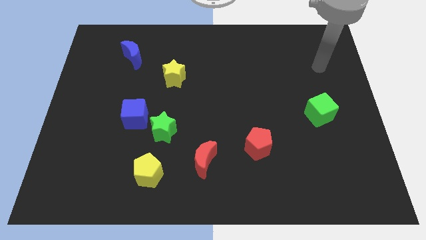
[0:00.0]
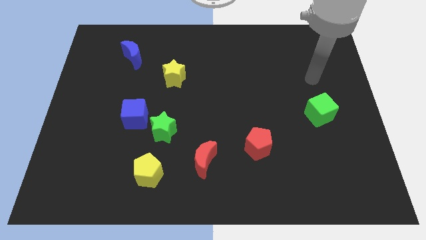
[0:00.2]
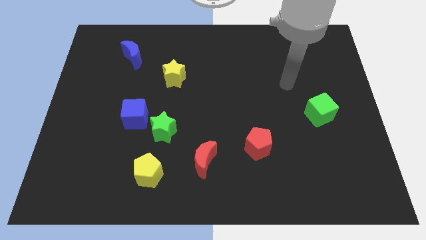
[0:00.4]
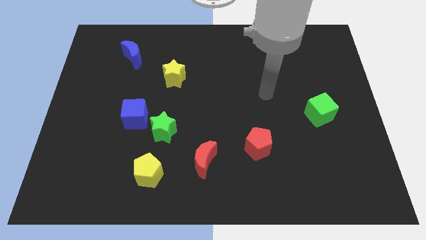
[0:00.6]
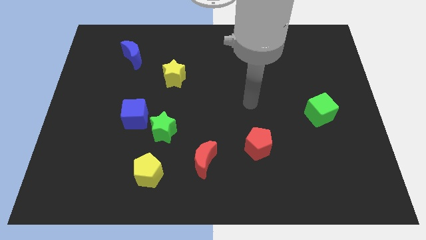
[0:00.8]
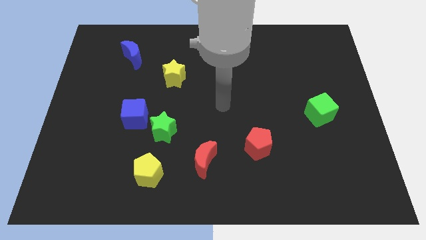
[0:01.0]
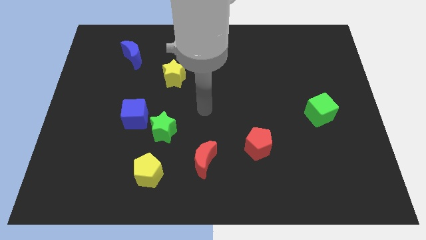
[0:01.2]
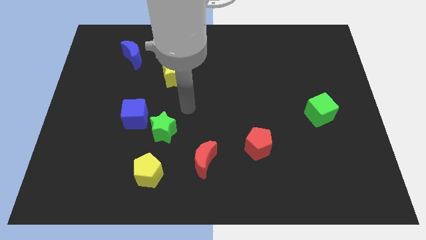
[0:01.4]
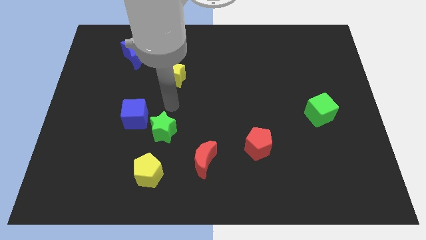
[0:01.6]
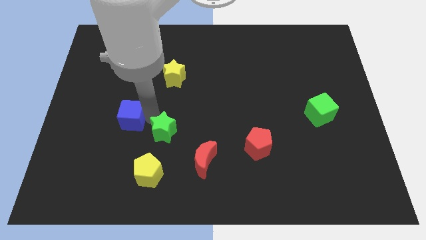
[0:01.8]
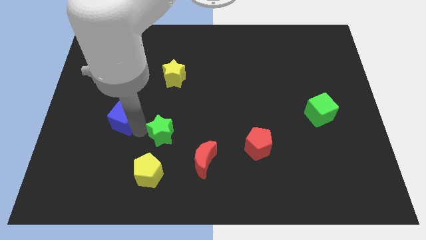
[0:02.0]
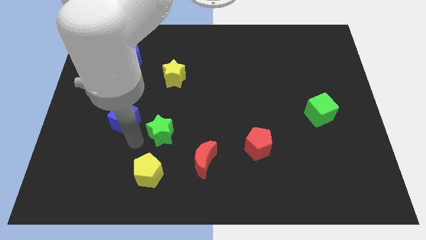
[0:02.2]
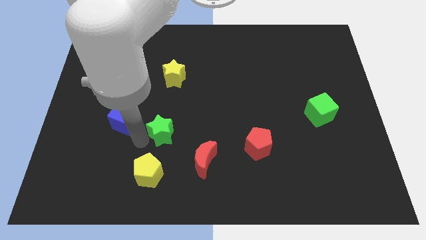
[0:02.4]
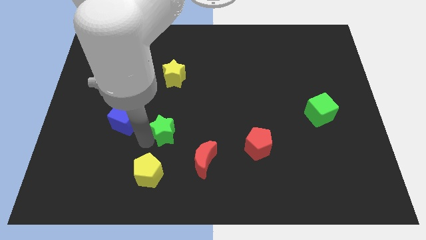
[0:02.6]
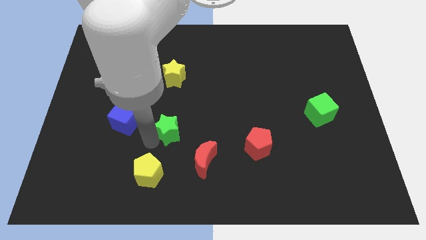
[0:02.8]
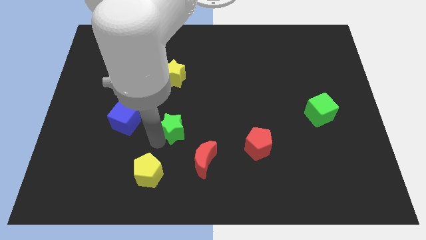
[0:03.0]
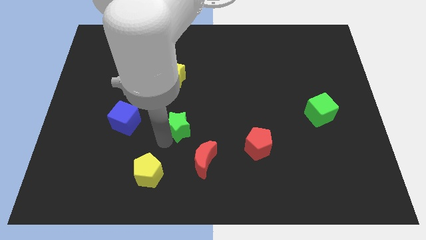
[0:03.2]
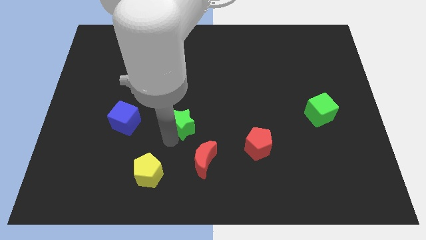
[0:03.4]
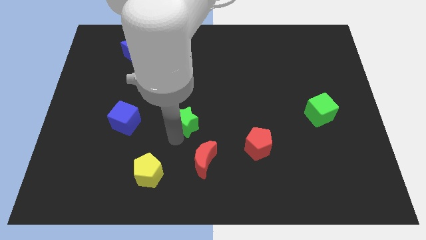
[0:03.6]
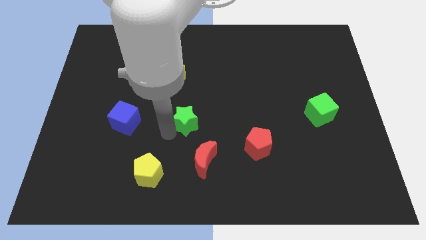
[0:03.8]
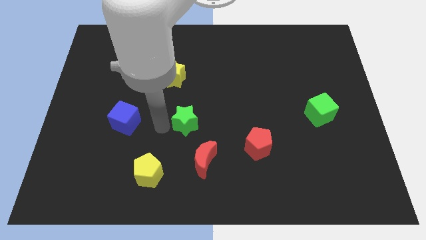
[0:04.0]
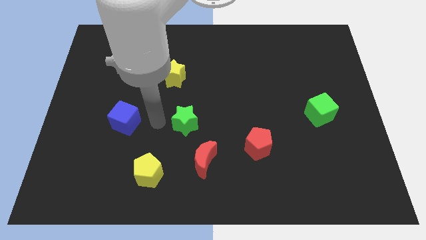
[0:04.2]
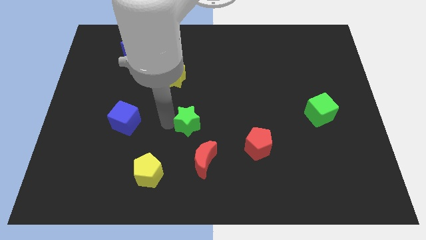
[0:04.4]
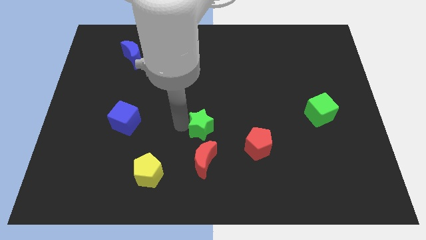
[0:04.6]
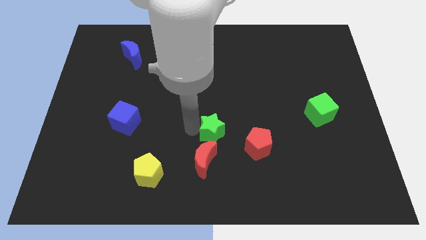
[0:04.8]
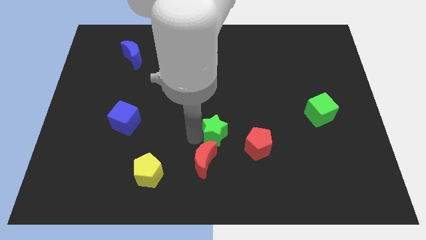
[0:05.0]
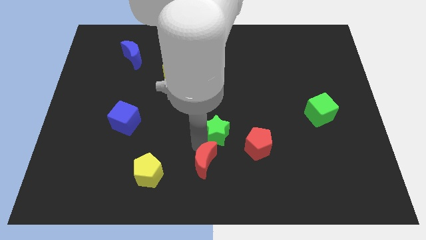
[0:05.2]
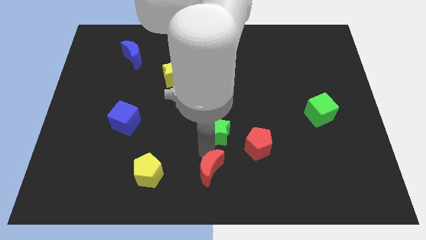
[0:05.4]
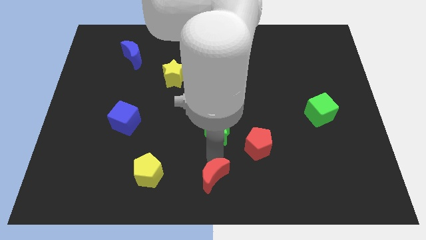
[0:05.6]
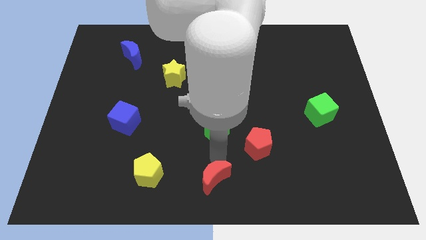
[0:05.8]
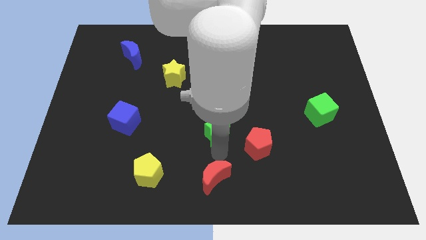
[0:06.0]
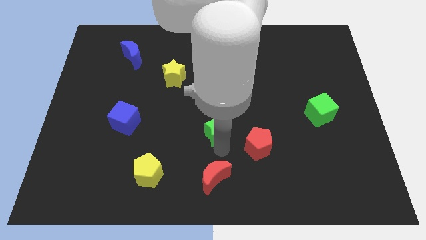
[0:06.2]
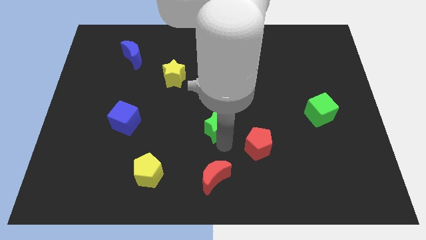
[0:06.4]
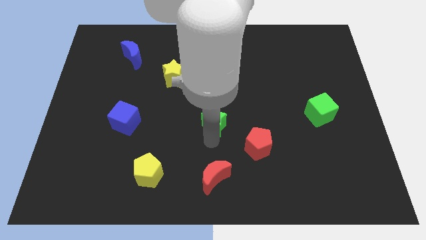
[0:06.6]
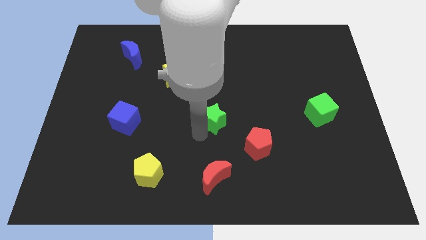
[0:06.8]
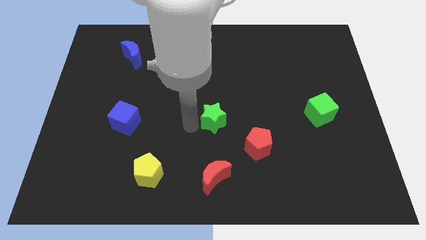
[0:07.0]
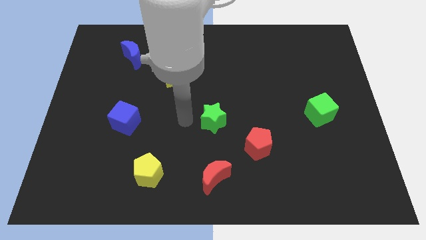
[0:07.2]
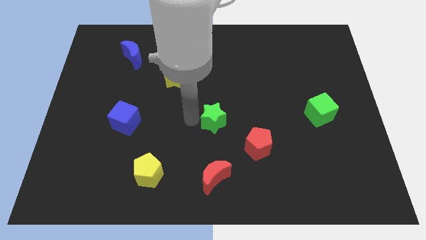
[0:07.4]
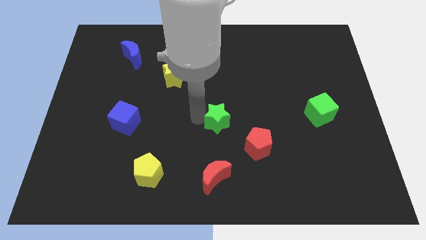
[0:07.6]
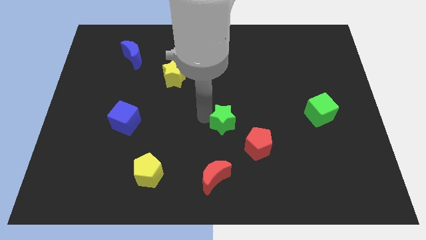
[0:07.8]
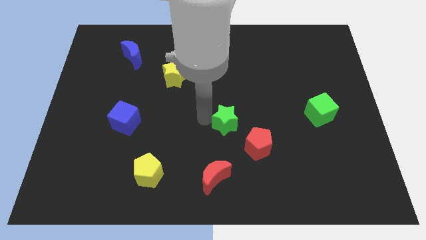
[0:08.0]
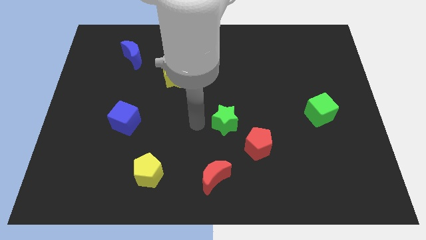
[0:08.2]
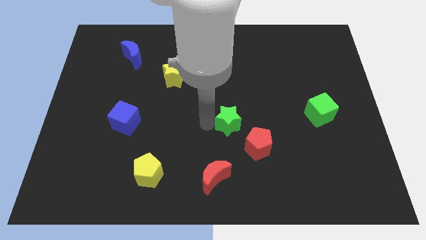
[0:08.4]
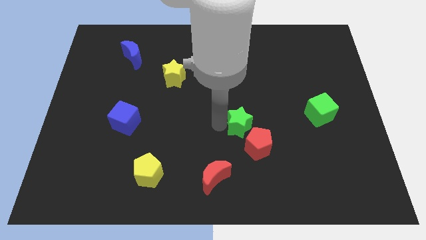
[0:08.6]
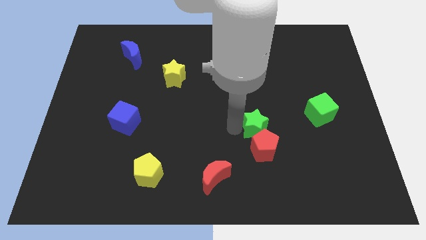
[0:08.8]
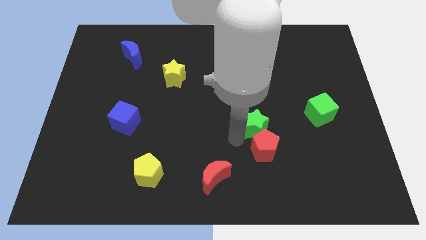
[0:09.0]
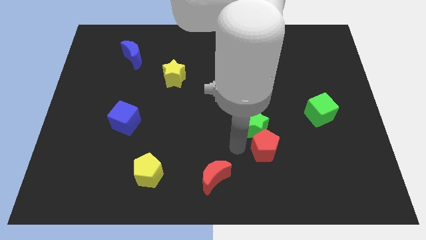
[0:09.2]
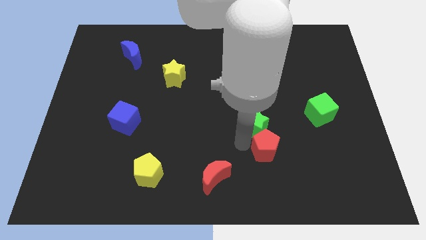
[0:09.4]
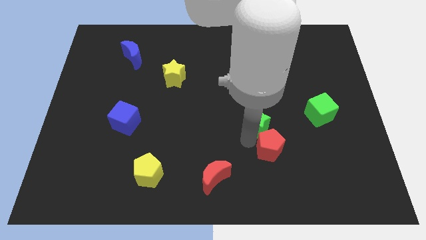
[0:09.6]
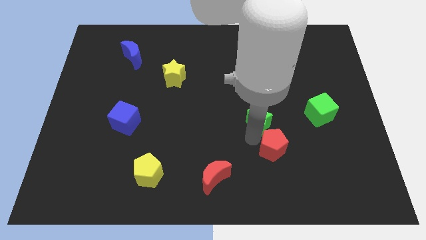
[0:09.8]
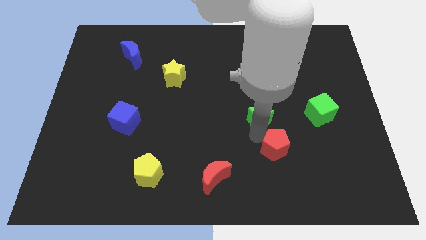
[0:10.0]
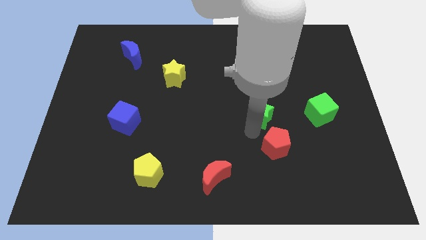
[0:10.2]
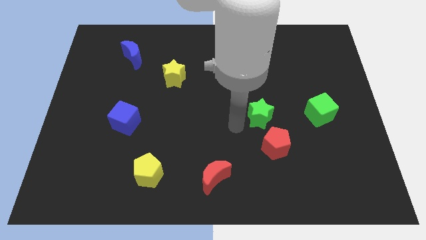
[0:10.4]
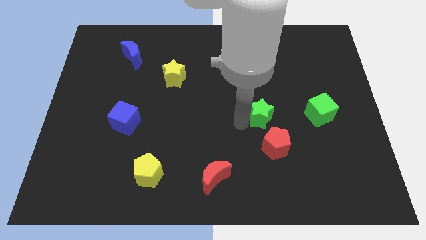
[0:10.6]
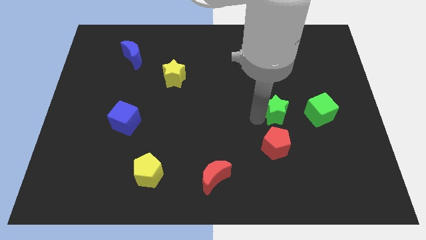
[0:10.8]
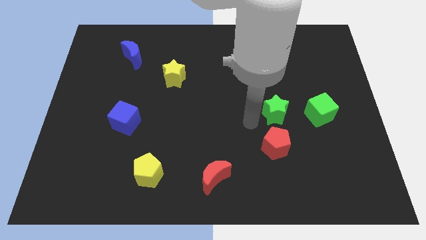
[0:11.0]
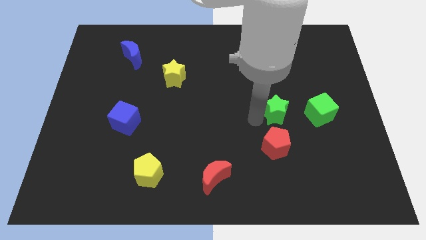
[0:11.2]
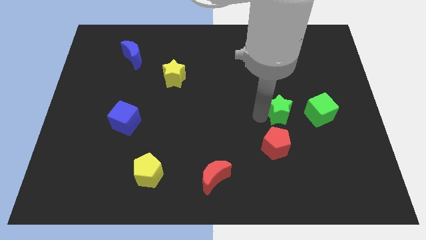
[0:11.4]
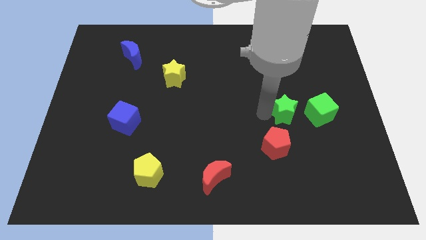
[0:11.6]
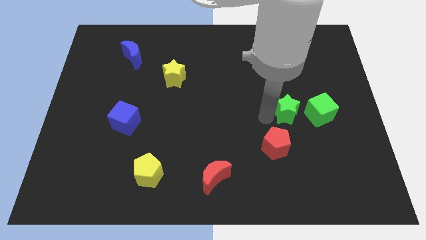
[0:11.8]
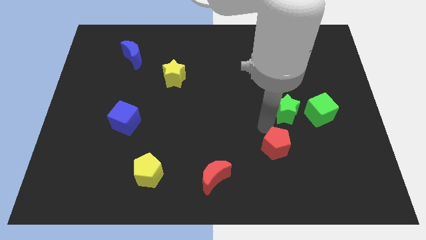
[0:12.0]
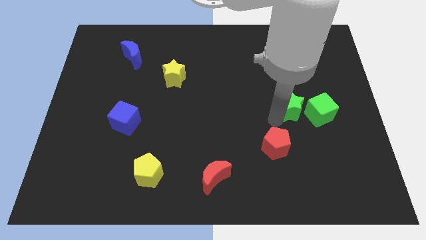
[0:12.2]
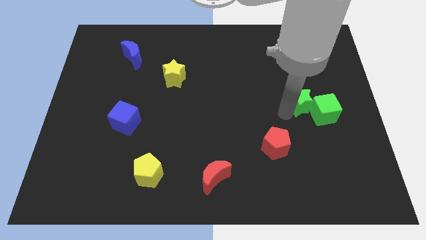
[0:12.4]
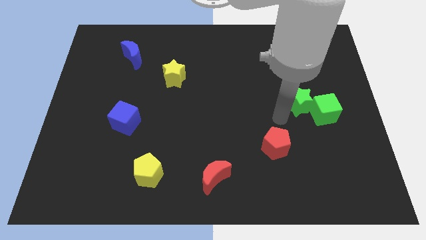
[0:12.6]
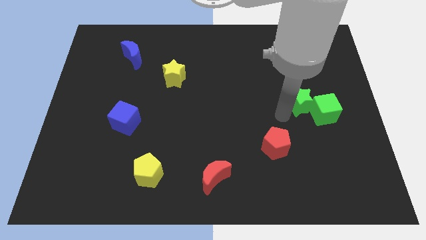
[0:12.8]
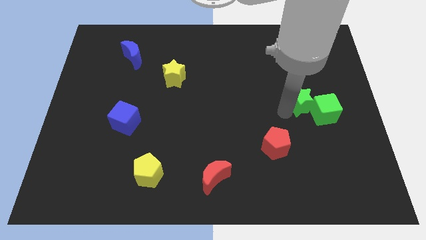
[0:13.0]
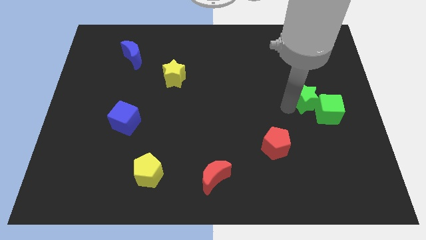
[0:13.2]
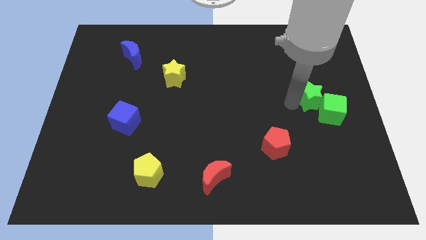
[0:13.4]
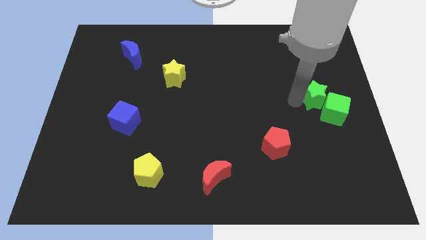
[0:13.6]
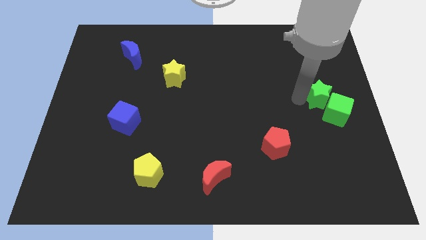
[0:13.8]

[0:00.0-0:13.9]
slide the green star to the right side
